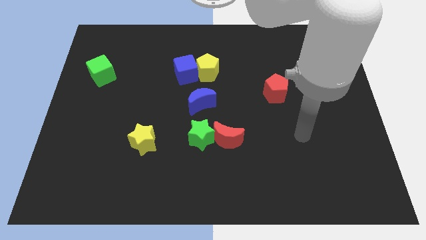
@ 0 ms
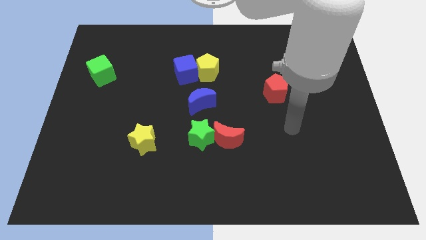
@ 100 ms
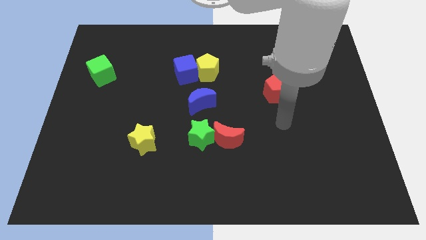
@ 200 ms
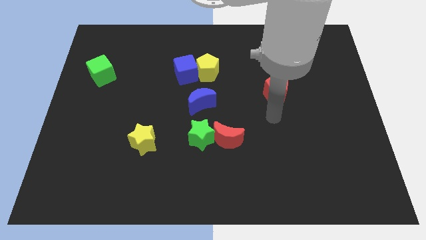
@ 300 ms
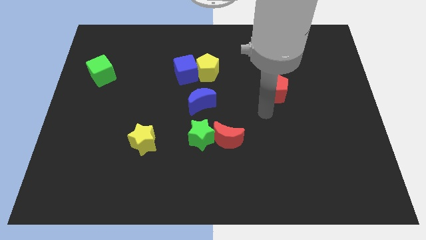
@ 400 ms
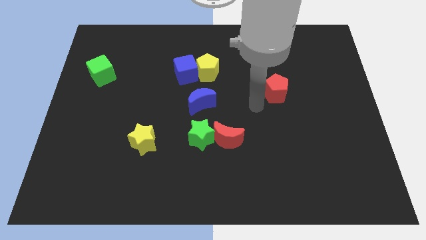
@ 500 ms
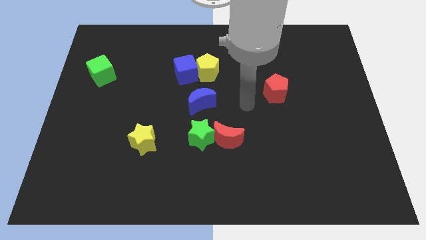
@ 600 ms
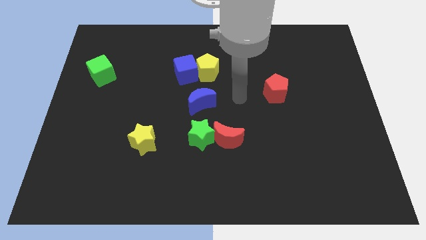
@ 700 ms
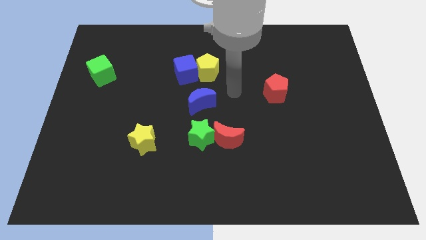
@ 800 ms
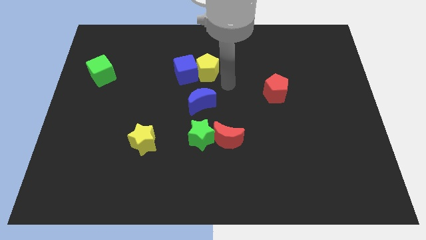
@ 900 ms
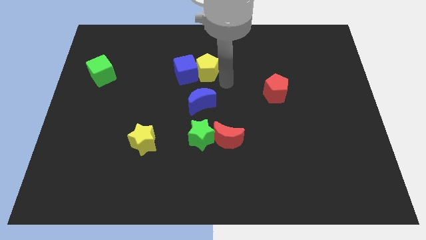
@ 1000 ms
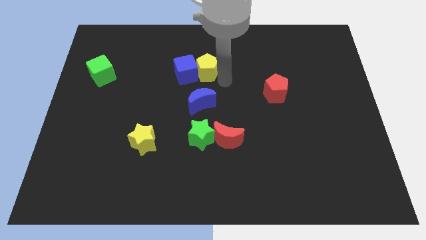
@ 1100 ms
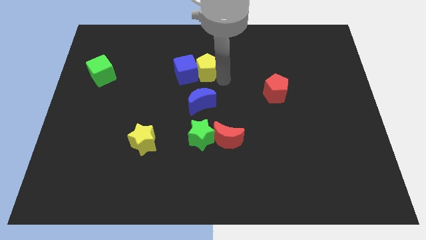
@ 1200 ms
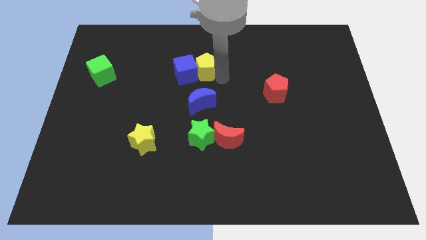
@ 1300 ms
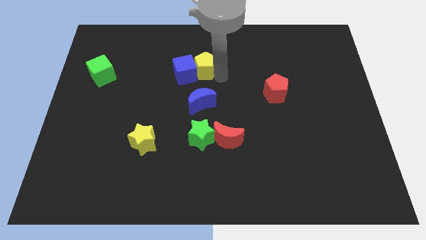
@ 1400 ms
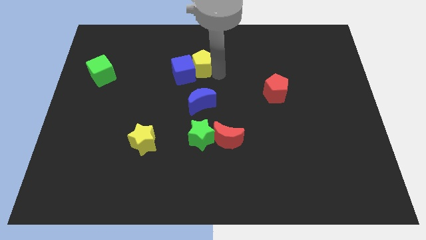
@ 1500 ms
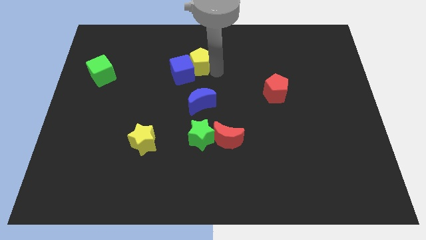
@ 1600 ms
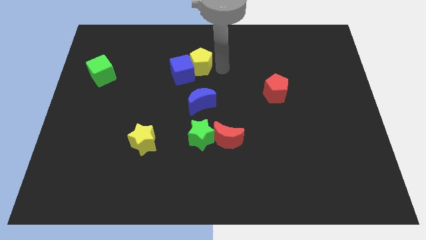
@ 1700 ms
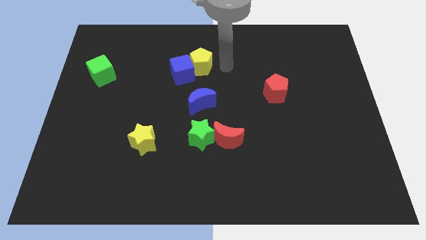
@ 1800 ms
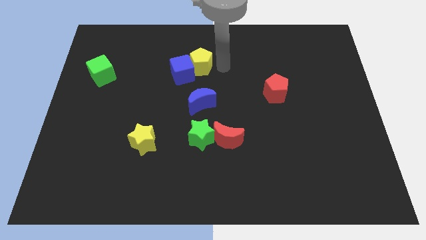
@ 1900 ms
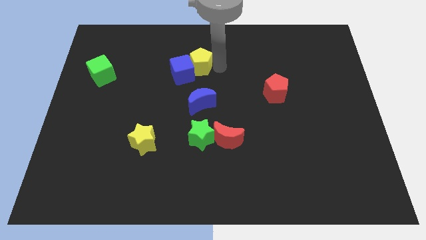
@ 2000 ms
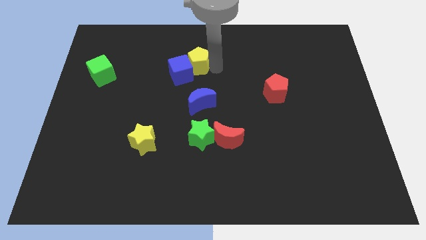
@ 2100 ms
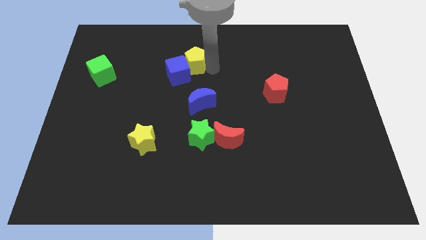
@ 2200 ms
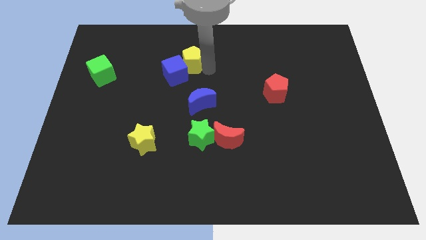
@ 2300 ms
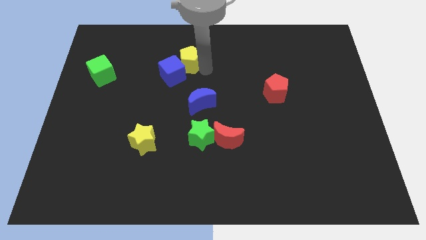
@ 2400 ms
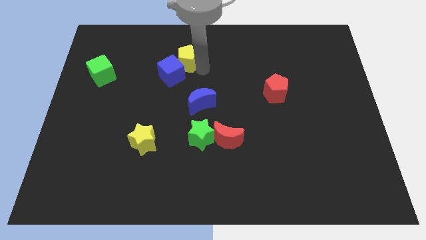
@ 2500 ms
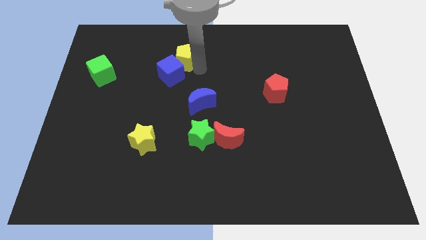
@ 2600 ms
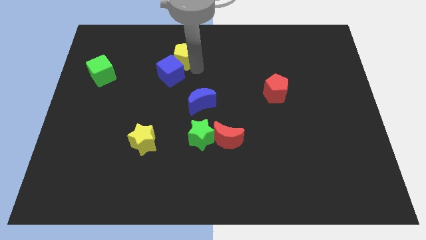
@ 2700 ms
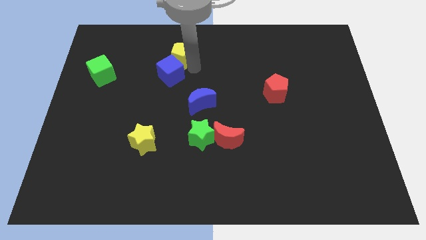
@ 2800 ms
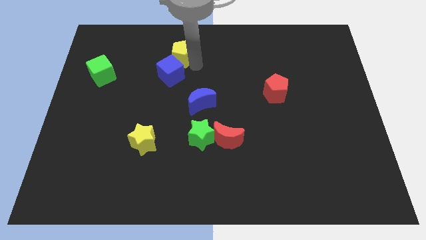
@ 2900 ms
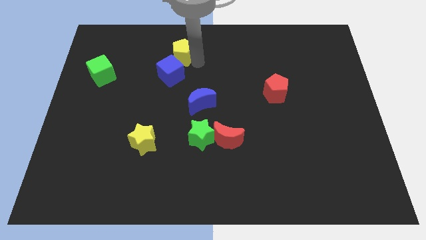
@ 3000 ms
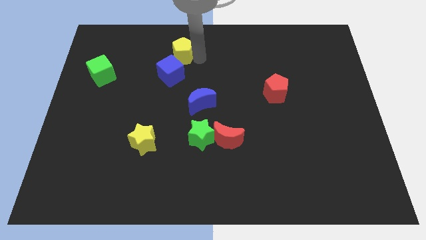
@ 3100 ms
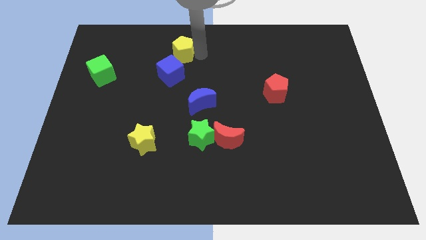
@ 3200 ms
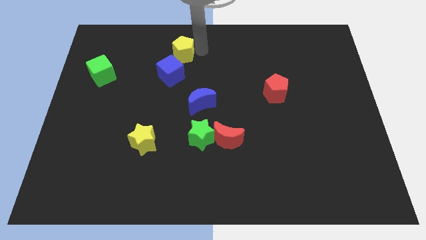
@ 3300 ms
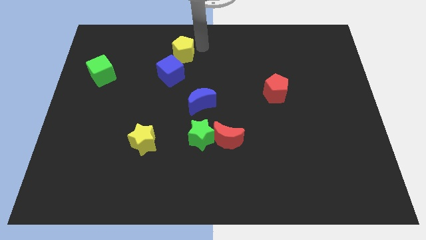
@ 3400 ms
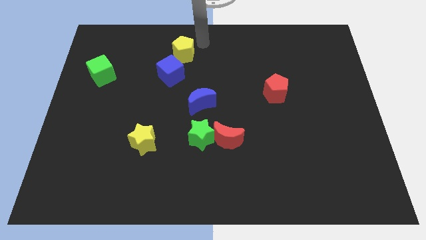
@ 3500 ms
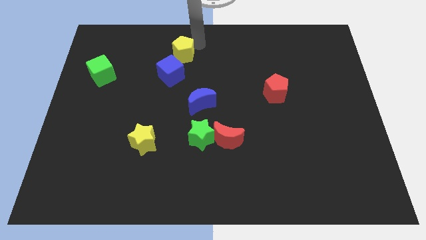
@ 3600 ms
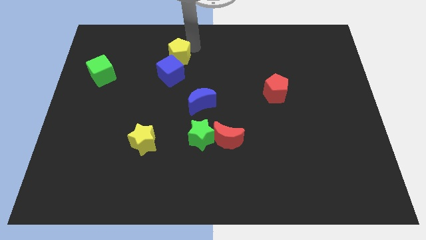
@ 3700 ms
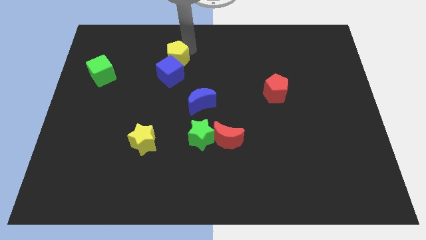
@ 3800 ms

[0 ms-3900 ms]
slightly move the yellow pentagon to the left

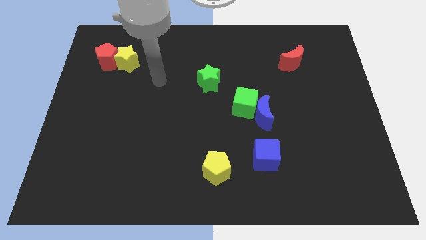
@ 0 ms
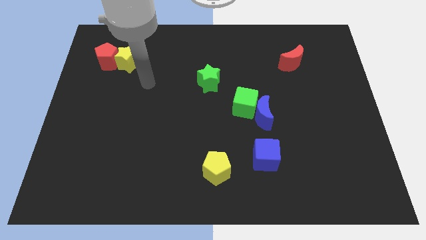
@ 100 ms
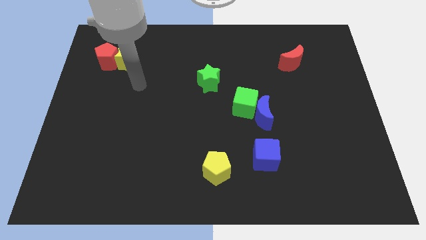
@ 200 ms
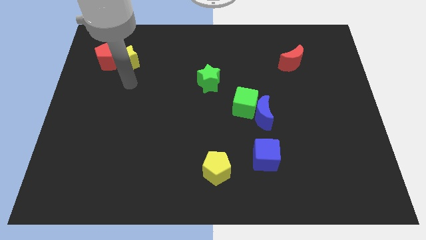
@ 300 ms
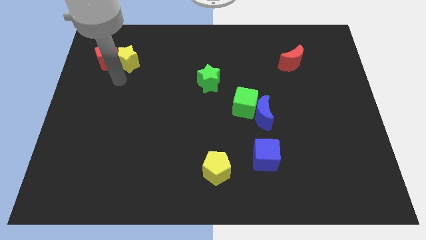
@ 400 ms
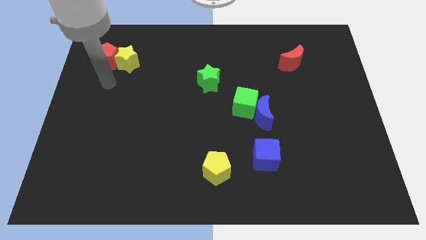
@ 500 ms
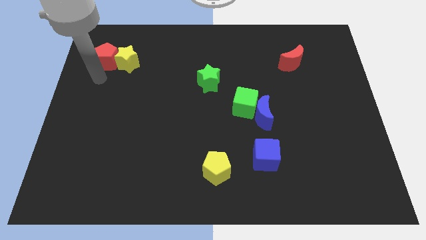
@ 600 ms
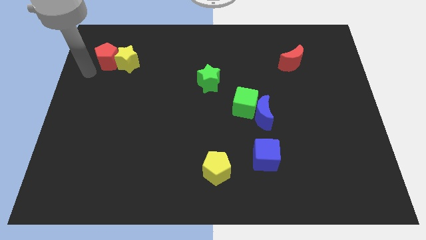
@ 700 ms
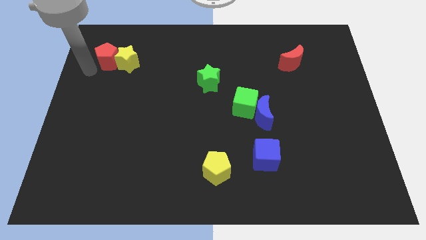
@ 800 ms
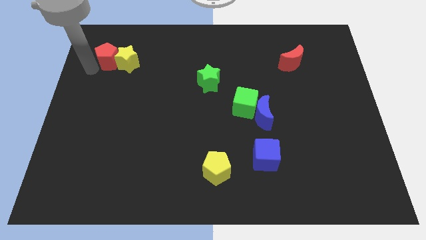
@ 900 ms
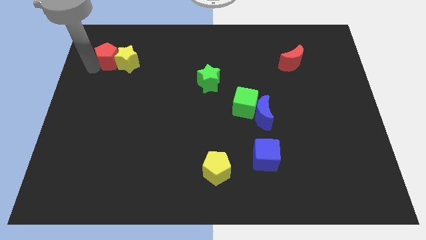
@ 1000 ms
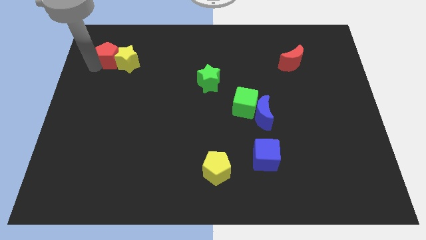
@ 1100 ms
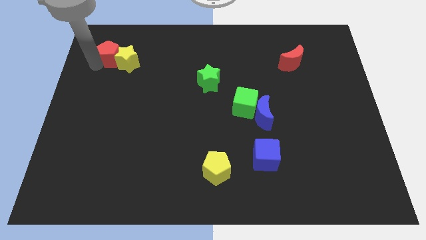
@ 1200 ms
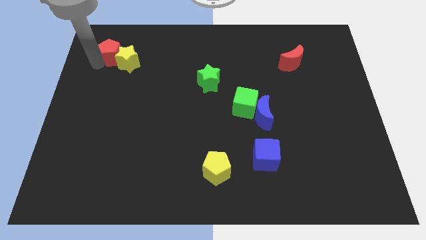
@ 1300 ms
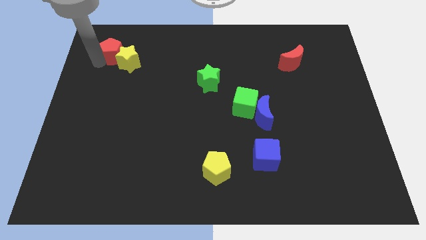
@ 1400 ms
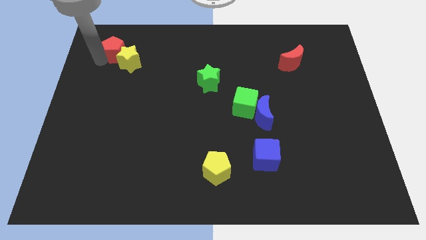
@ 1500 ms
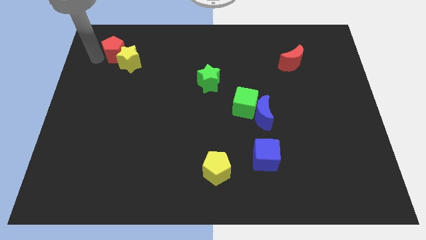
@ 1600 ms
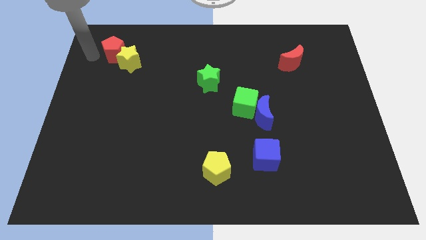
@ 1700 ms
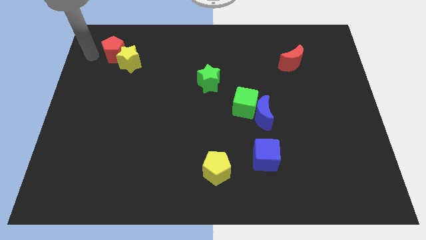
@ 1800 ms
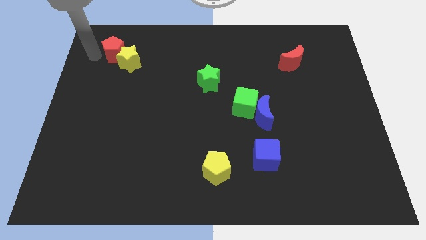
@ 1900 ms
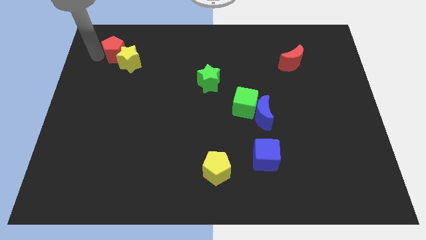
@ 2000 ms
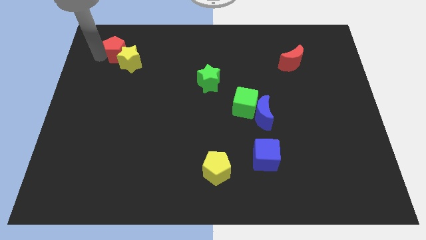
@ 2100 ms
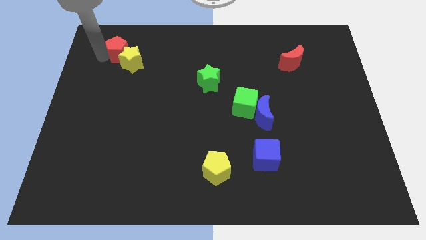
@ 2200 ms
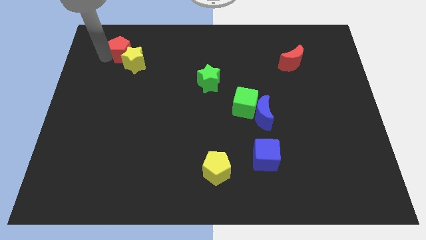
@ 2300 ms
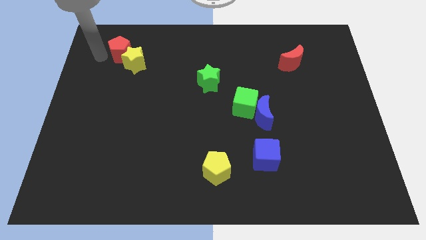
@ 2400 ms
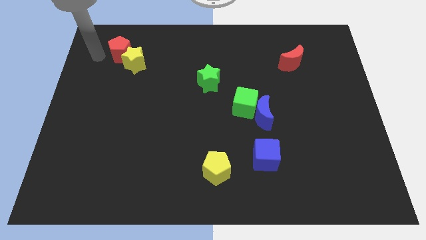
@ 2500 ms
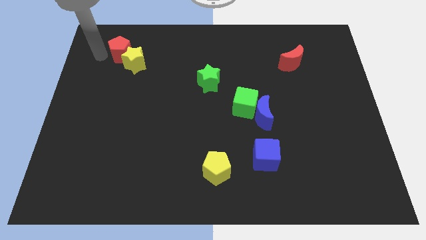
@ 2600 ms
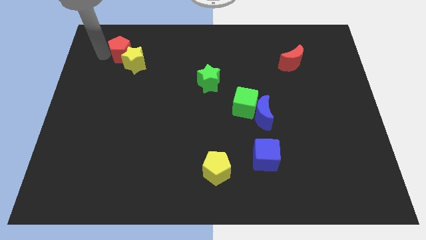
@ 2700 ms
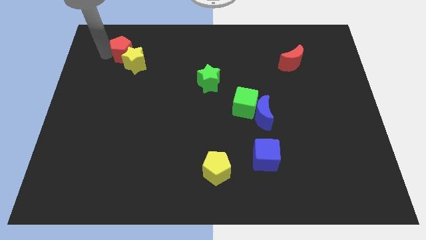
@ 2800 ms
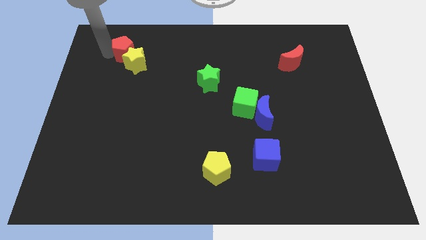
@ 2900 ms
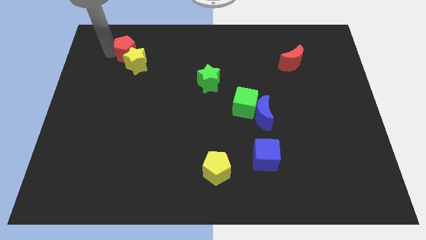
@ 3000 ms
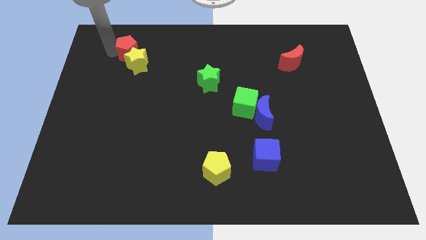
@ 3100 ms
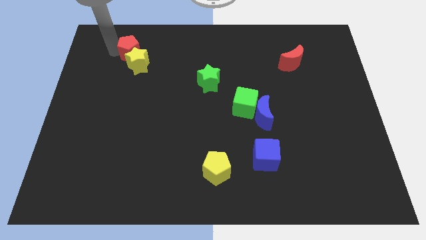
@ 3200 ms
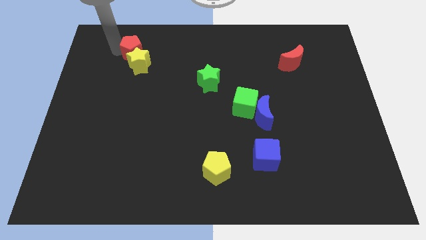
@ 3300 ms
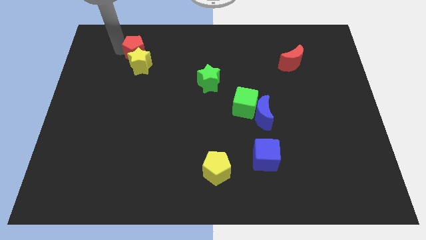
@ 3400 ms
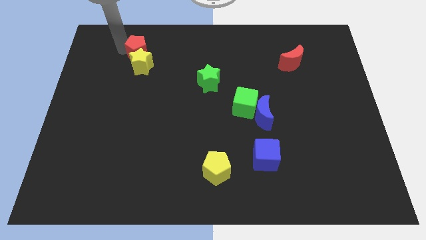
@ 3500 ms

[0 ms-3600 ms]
slightly push the red pentagon to the right

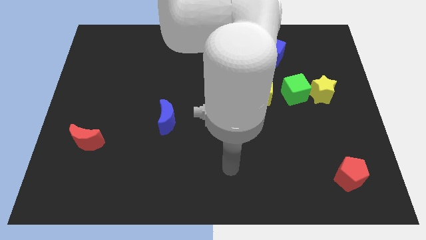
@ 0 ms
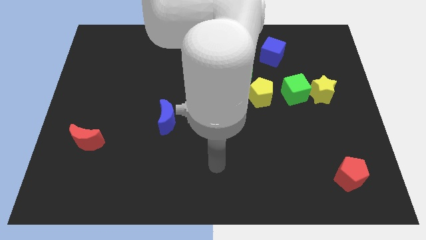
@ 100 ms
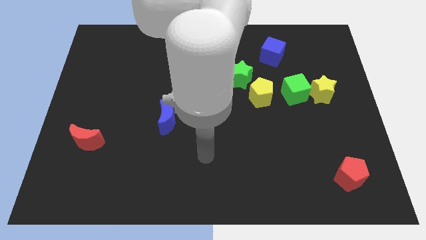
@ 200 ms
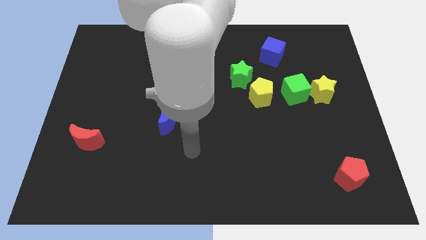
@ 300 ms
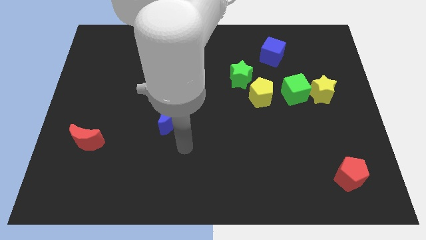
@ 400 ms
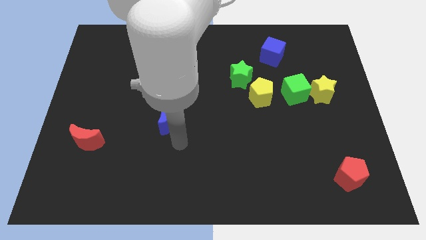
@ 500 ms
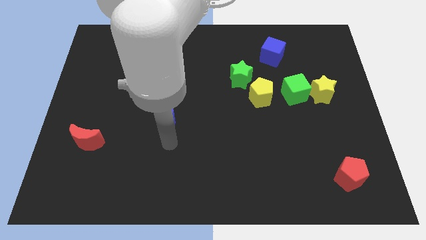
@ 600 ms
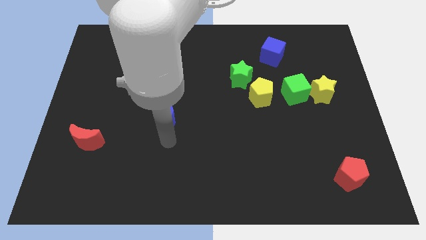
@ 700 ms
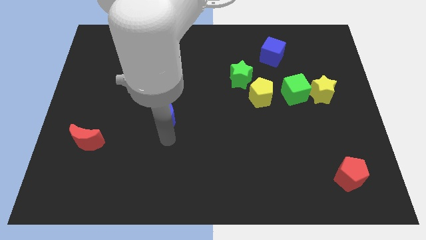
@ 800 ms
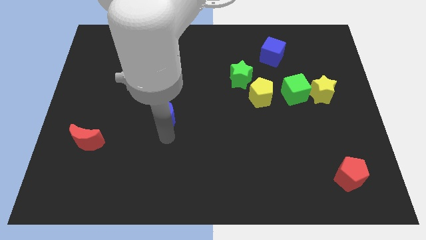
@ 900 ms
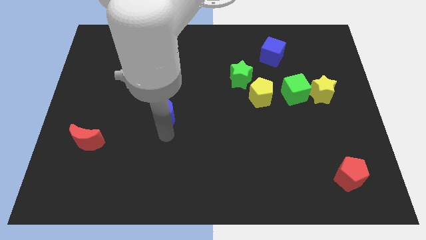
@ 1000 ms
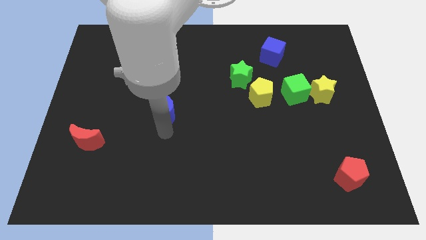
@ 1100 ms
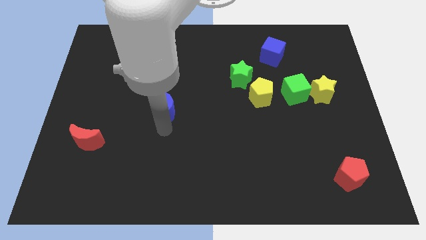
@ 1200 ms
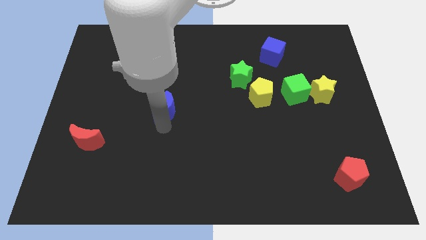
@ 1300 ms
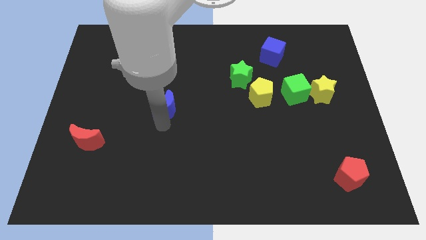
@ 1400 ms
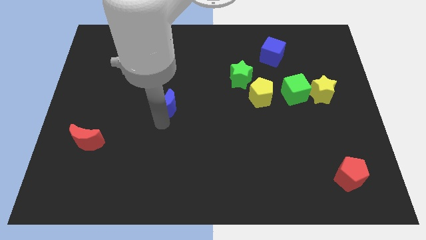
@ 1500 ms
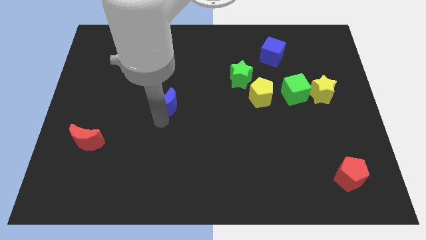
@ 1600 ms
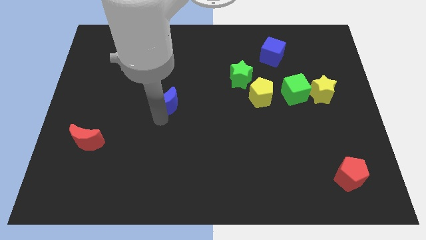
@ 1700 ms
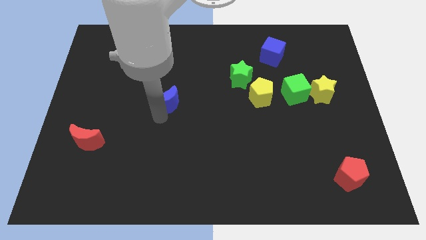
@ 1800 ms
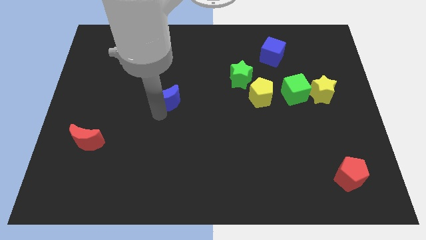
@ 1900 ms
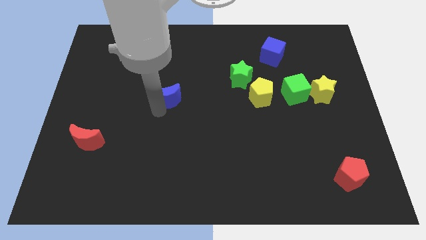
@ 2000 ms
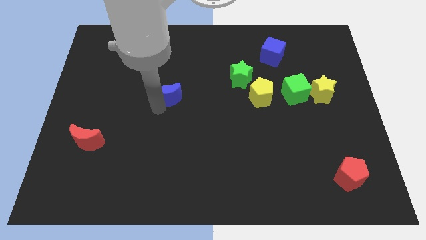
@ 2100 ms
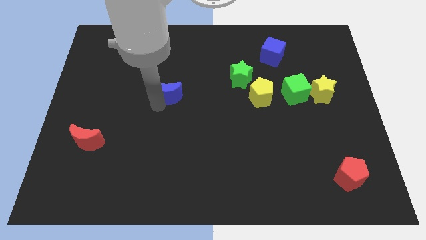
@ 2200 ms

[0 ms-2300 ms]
slide the blue moon upwards somewhat
